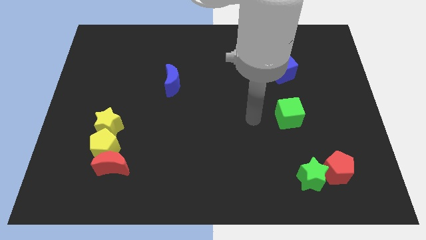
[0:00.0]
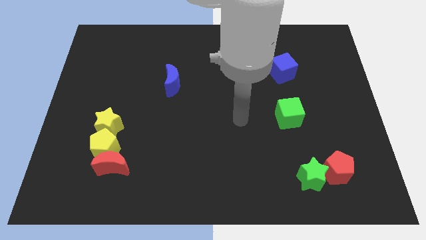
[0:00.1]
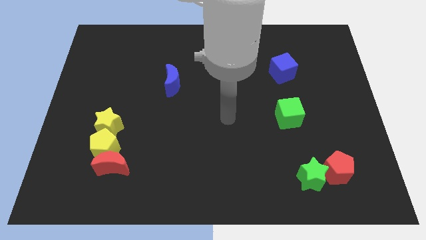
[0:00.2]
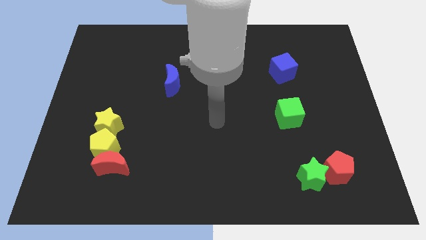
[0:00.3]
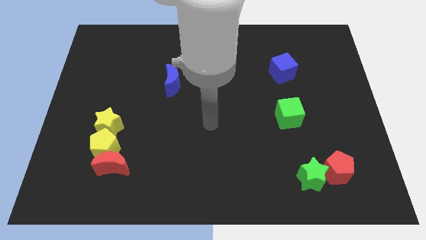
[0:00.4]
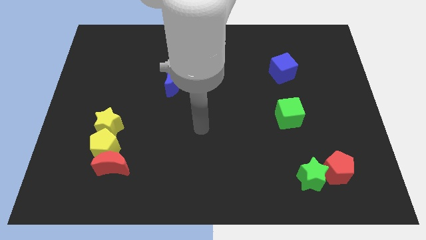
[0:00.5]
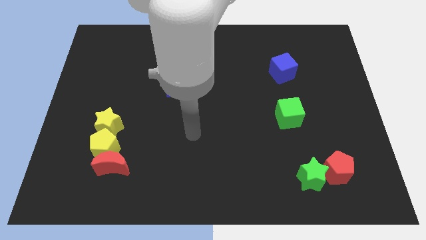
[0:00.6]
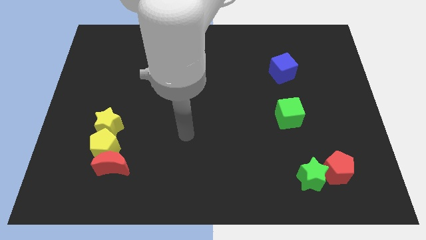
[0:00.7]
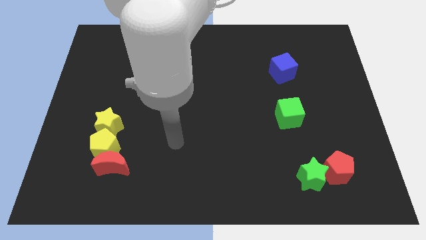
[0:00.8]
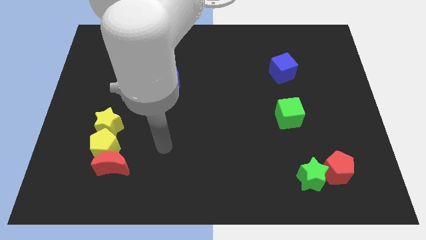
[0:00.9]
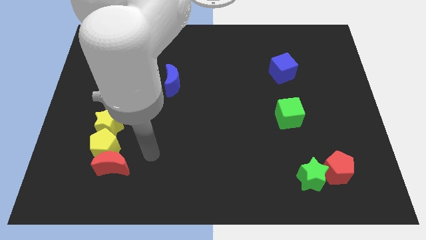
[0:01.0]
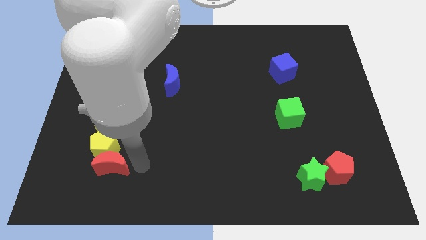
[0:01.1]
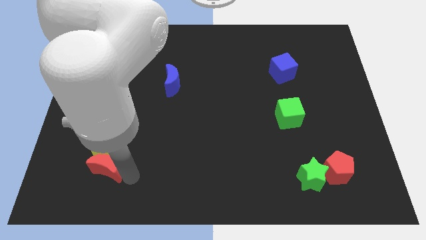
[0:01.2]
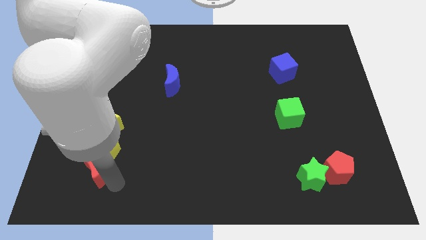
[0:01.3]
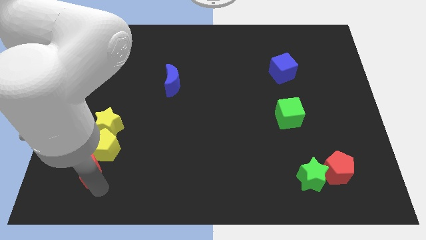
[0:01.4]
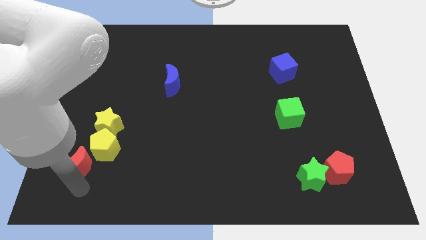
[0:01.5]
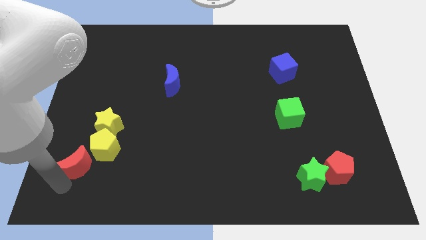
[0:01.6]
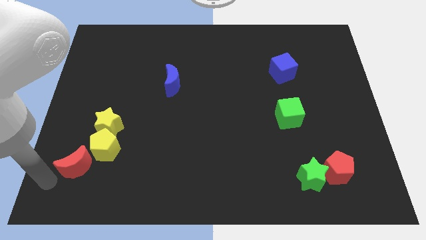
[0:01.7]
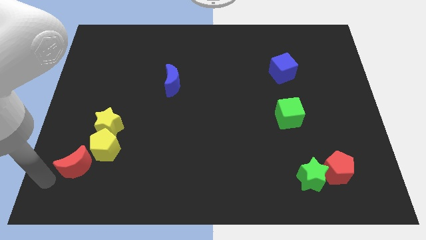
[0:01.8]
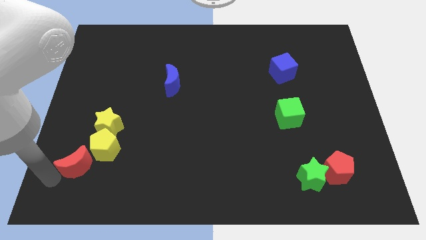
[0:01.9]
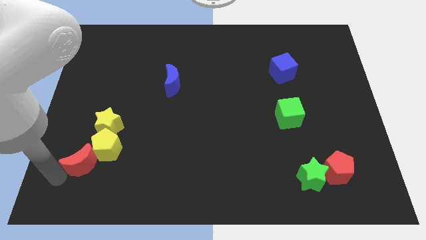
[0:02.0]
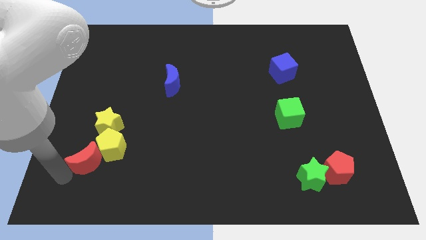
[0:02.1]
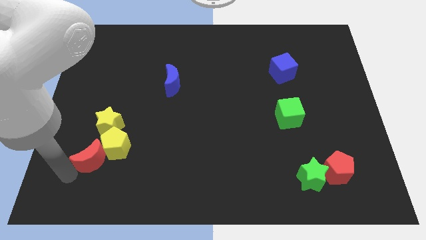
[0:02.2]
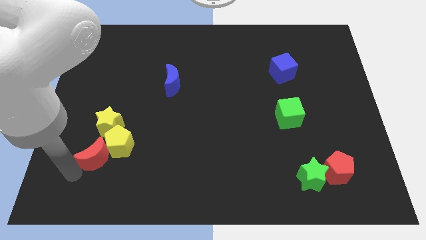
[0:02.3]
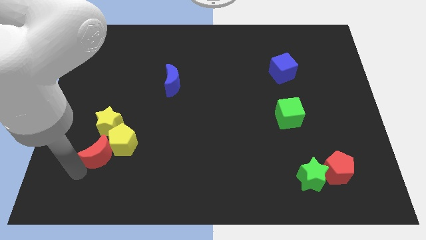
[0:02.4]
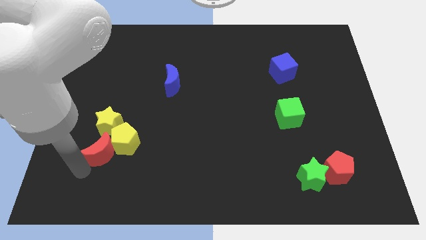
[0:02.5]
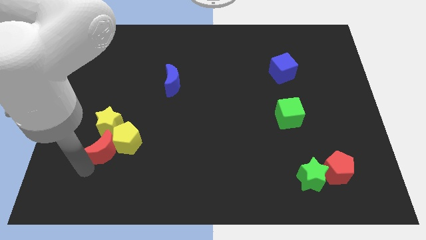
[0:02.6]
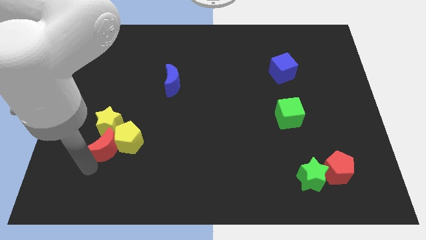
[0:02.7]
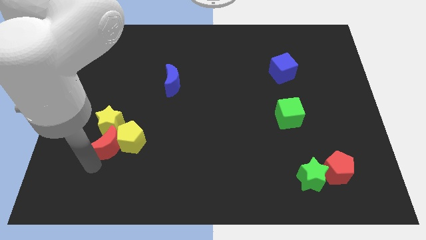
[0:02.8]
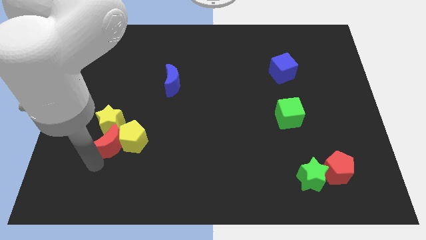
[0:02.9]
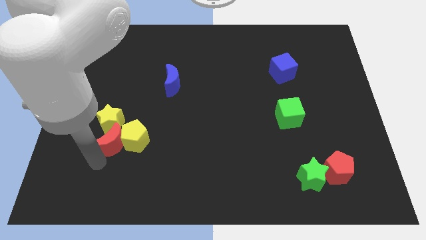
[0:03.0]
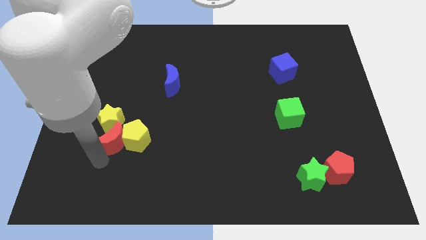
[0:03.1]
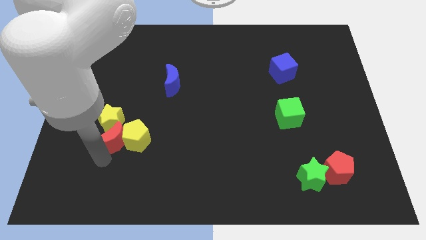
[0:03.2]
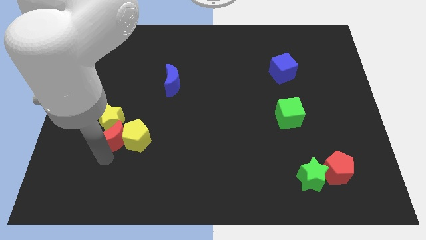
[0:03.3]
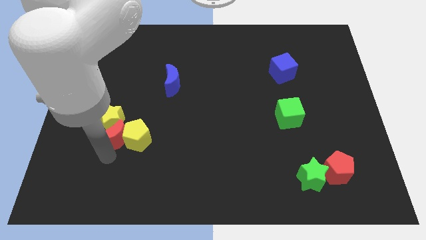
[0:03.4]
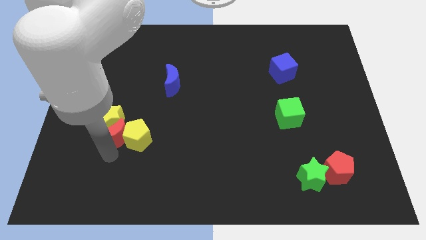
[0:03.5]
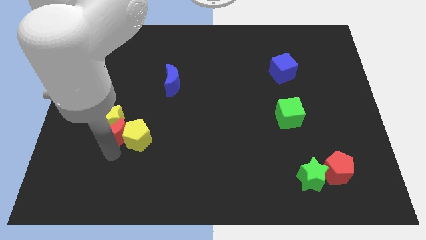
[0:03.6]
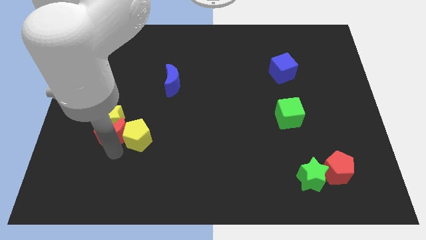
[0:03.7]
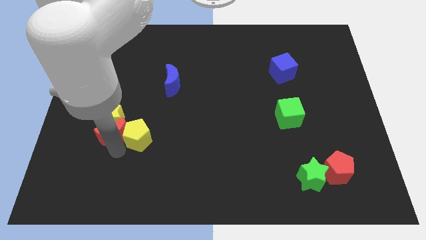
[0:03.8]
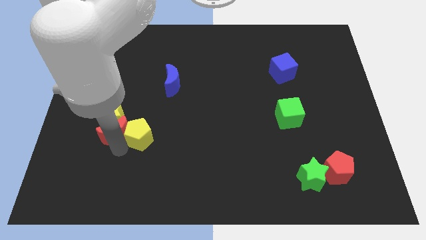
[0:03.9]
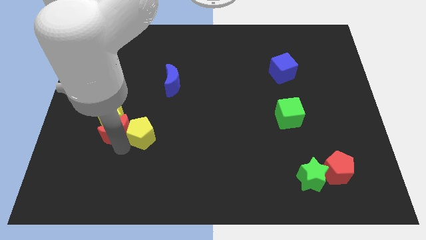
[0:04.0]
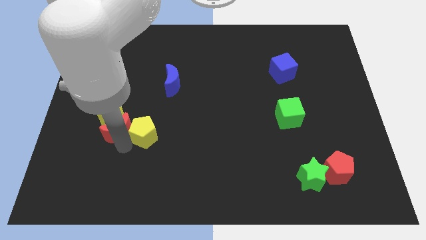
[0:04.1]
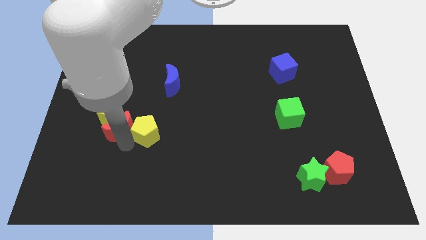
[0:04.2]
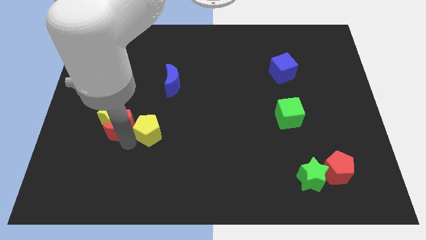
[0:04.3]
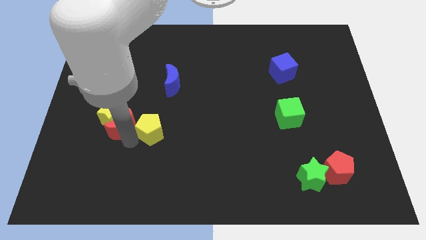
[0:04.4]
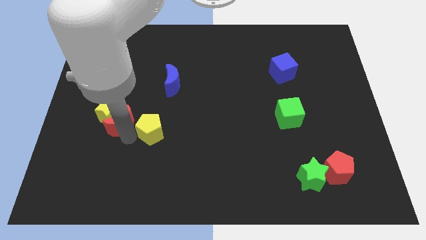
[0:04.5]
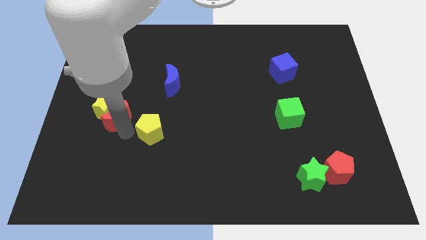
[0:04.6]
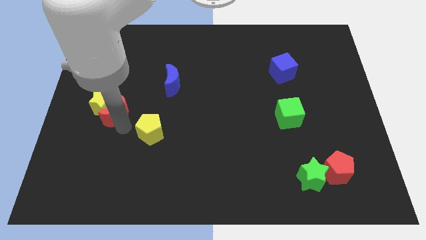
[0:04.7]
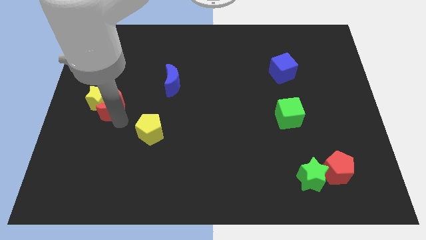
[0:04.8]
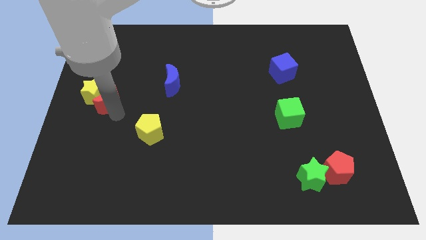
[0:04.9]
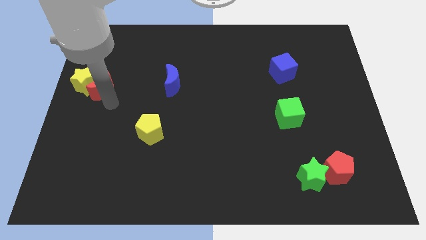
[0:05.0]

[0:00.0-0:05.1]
move the red moon up

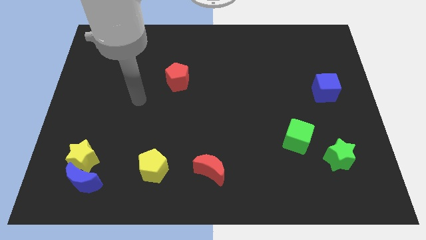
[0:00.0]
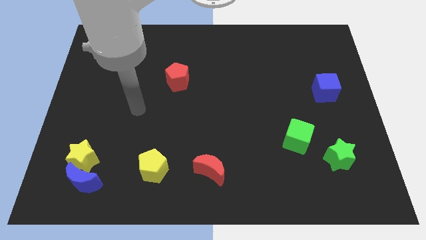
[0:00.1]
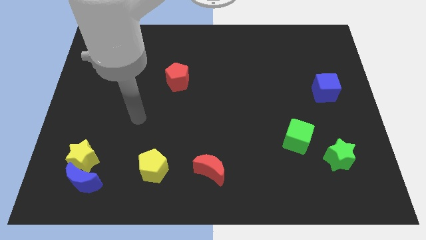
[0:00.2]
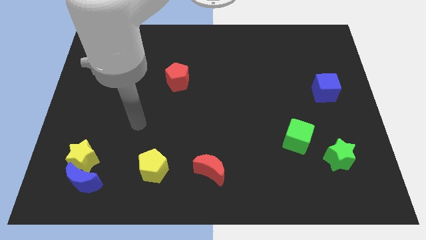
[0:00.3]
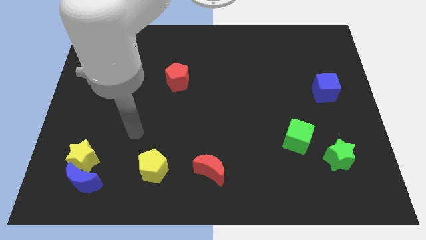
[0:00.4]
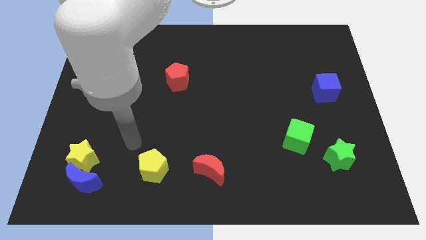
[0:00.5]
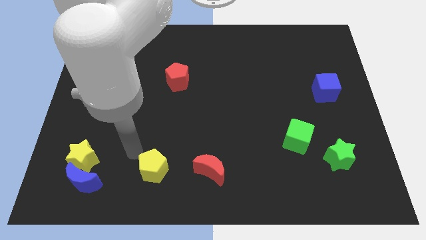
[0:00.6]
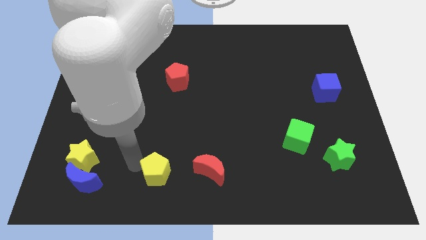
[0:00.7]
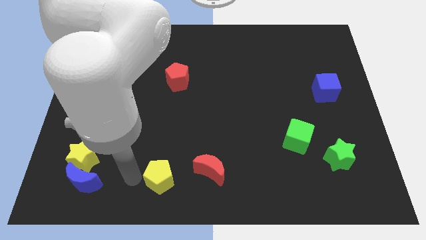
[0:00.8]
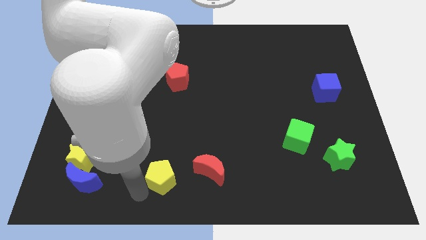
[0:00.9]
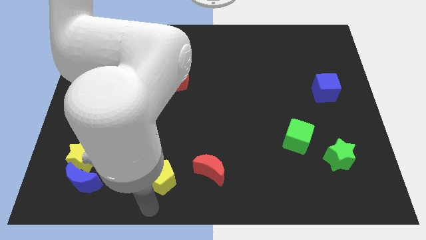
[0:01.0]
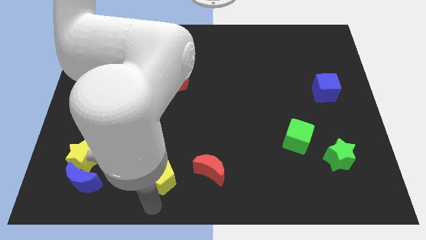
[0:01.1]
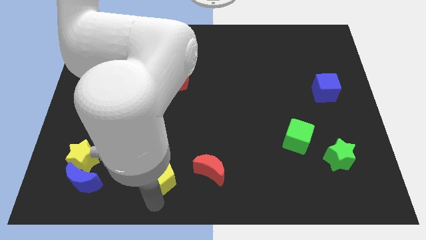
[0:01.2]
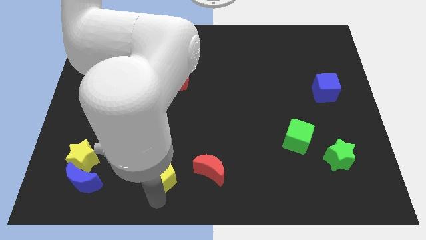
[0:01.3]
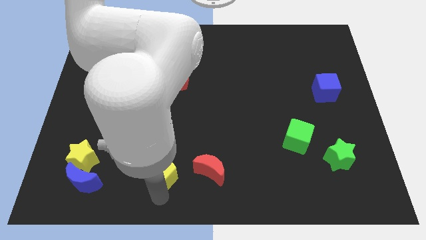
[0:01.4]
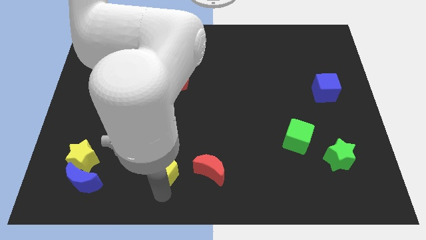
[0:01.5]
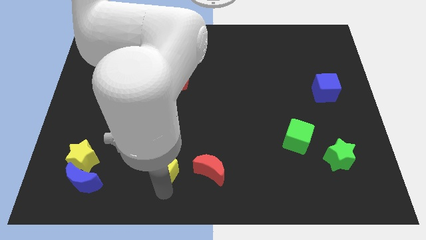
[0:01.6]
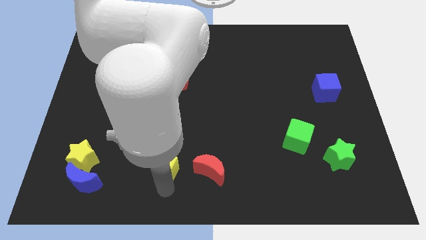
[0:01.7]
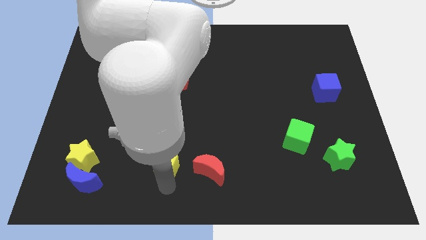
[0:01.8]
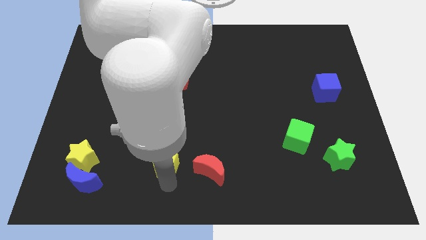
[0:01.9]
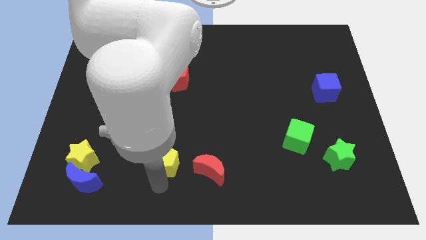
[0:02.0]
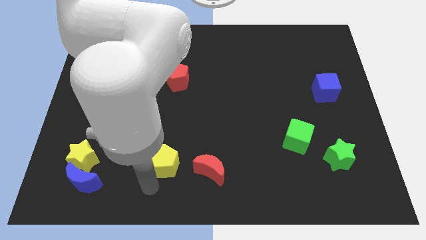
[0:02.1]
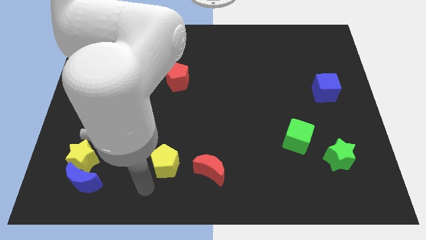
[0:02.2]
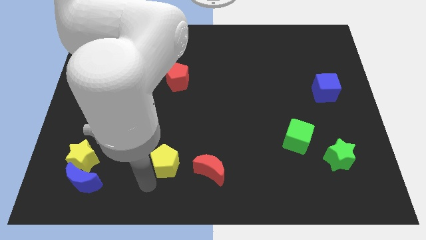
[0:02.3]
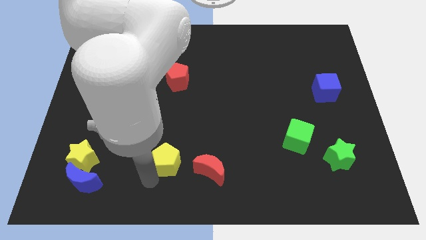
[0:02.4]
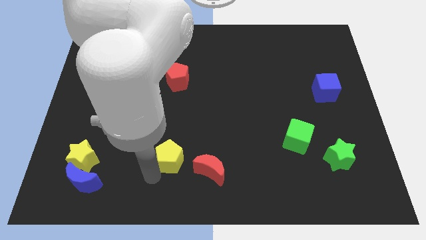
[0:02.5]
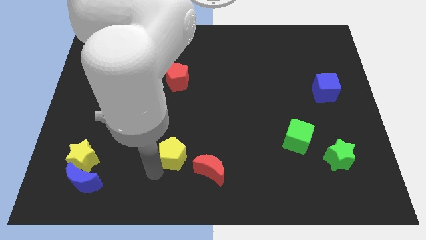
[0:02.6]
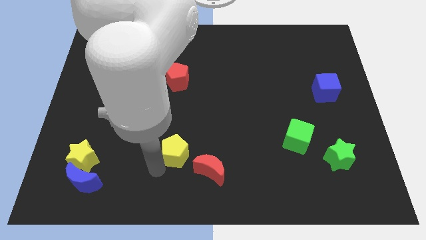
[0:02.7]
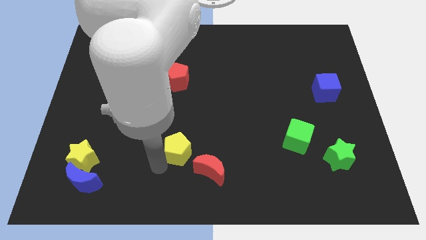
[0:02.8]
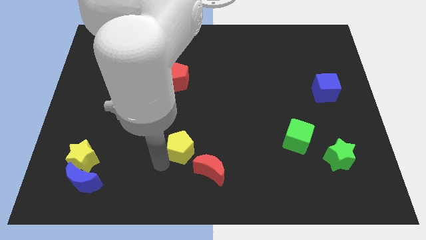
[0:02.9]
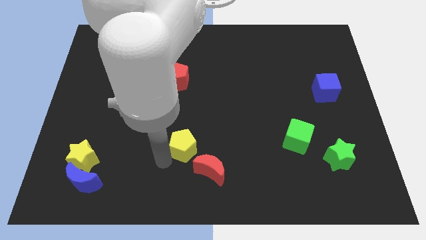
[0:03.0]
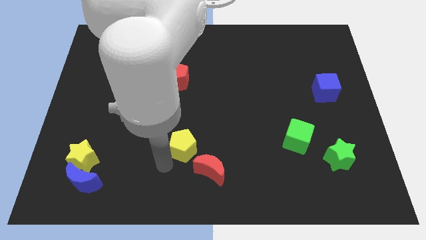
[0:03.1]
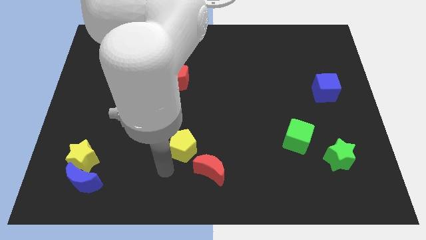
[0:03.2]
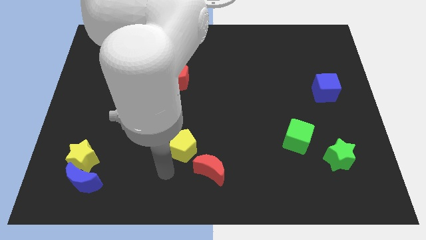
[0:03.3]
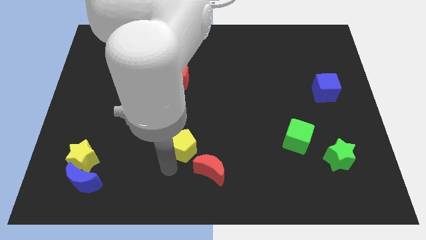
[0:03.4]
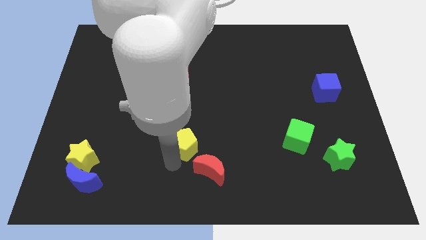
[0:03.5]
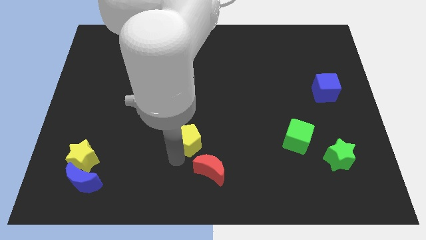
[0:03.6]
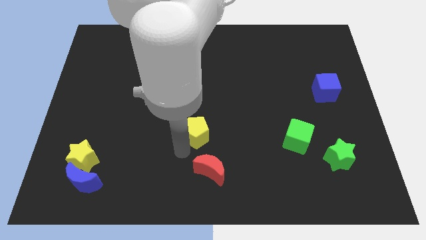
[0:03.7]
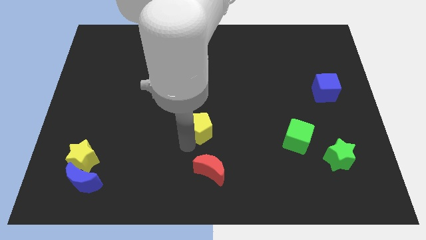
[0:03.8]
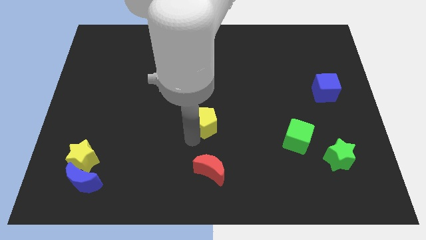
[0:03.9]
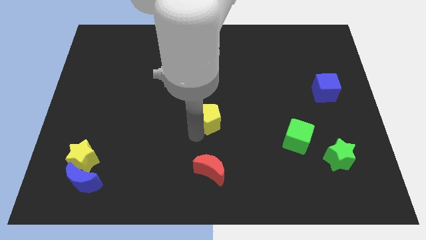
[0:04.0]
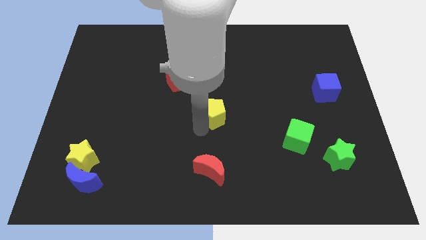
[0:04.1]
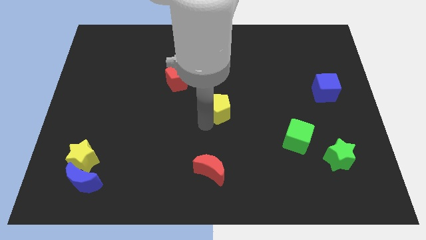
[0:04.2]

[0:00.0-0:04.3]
slide the yellow pentagon up and to the right diagonally
